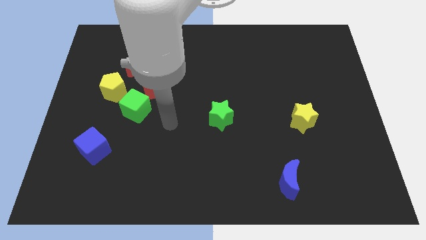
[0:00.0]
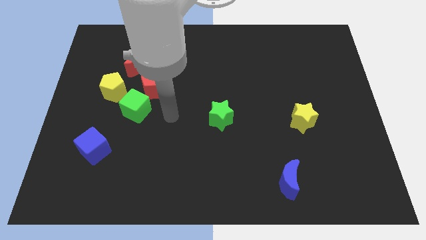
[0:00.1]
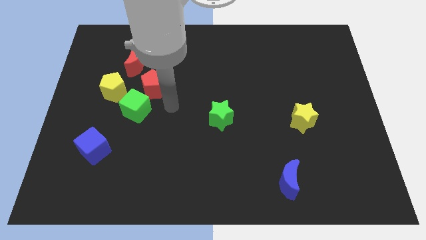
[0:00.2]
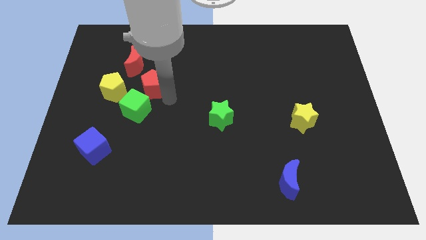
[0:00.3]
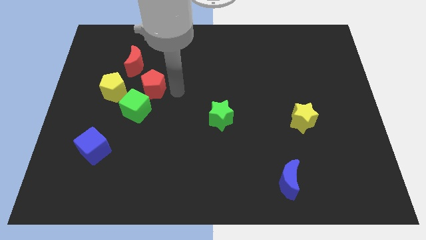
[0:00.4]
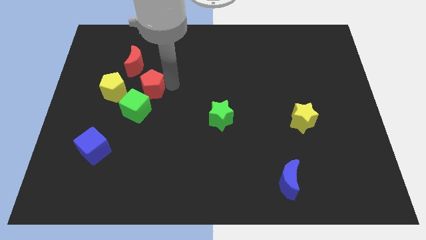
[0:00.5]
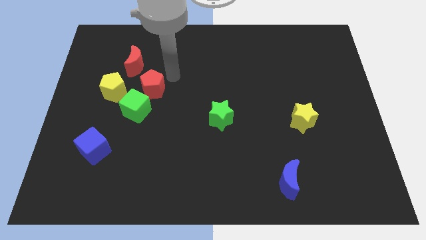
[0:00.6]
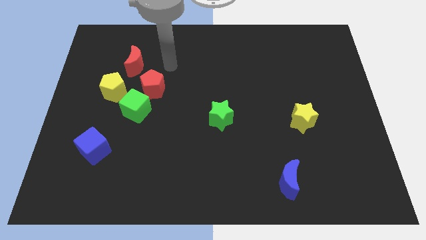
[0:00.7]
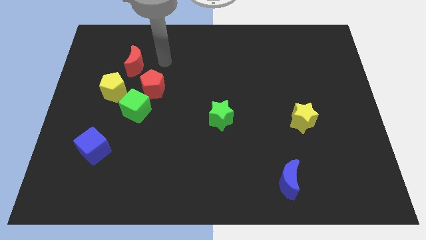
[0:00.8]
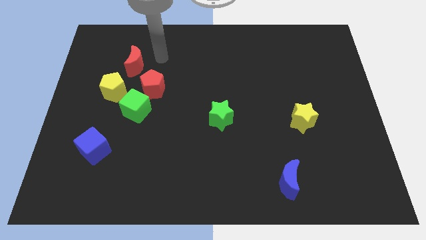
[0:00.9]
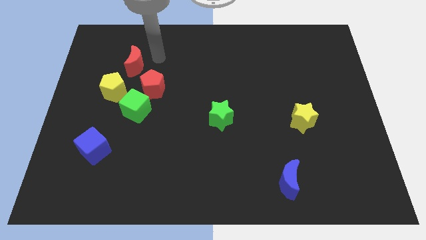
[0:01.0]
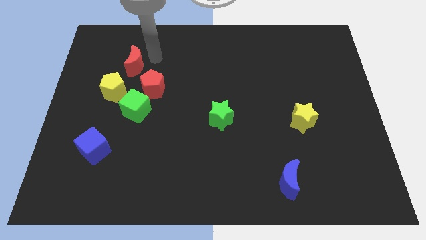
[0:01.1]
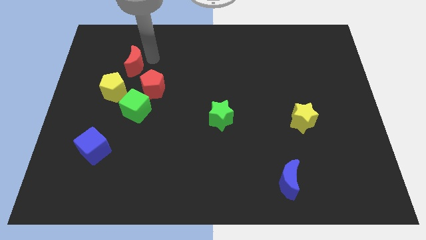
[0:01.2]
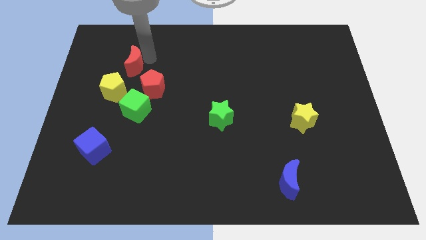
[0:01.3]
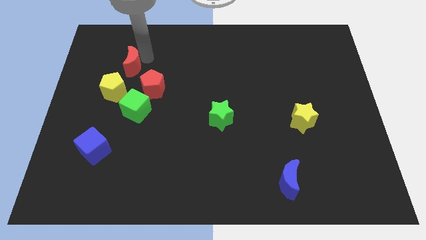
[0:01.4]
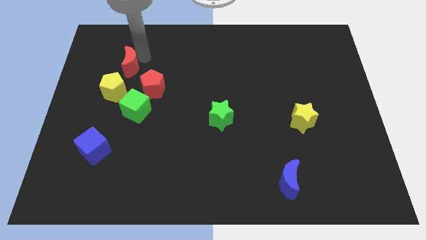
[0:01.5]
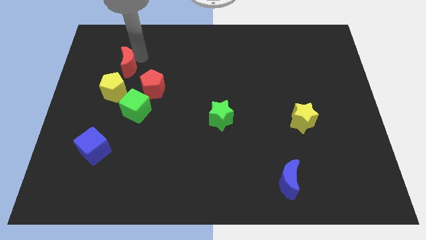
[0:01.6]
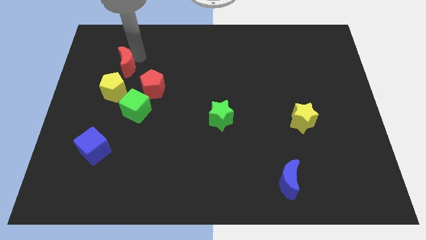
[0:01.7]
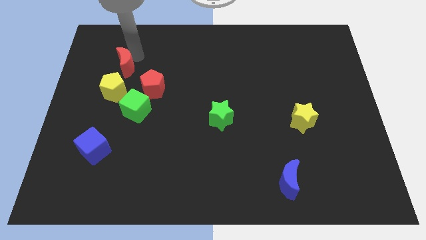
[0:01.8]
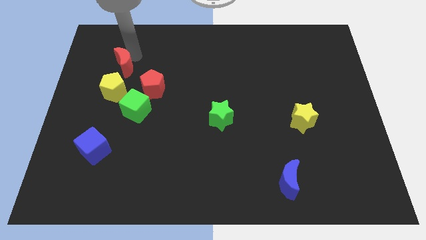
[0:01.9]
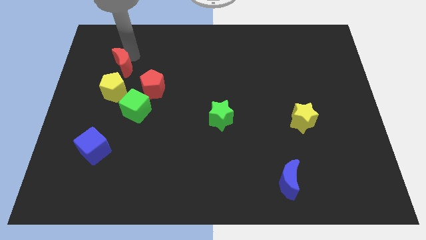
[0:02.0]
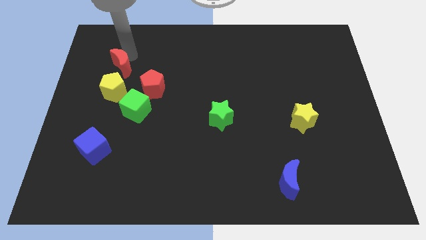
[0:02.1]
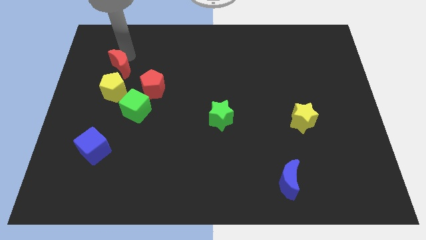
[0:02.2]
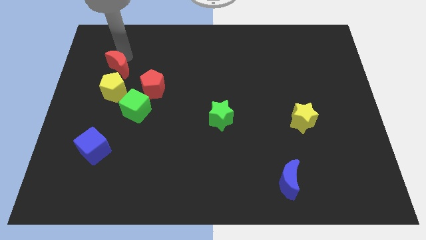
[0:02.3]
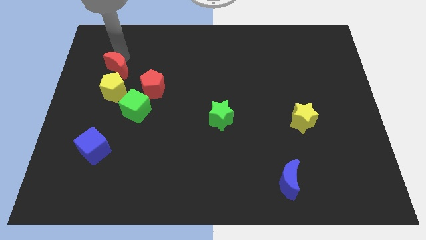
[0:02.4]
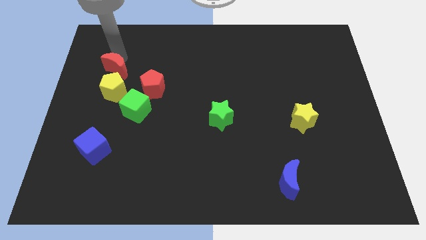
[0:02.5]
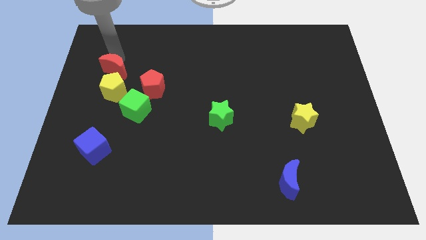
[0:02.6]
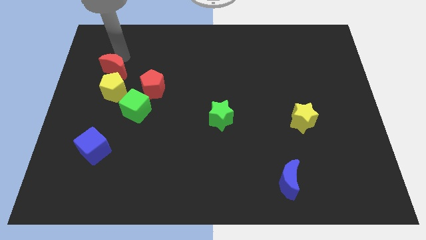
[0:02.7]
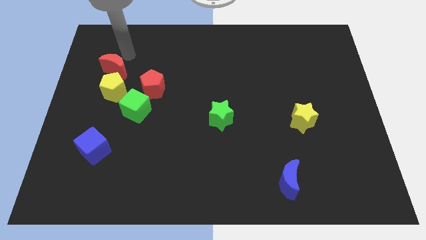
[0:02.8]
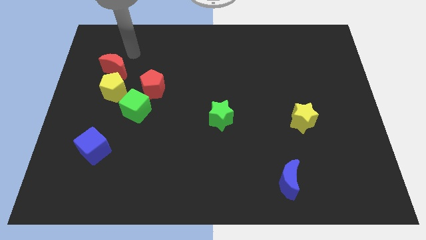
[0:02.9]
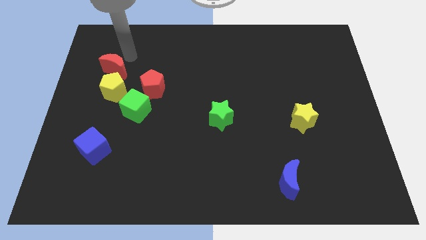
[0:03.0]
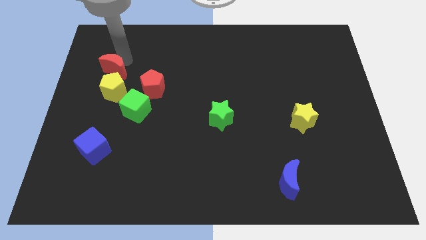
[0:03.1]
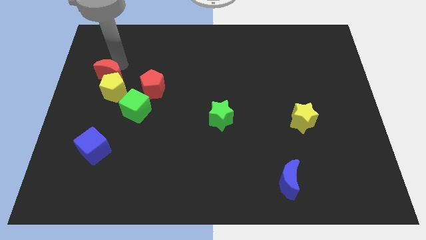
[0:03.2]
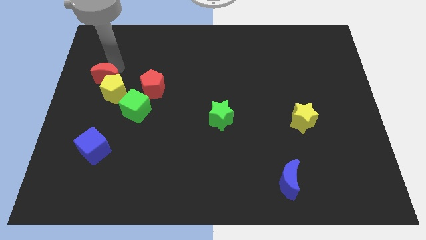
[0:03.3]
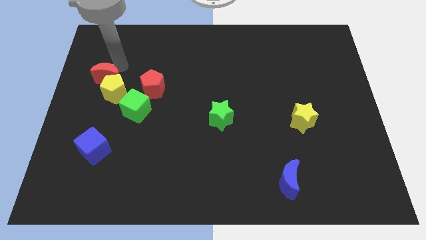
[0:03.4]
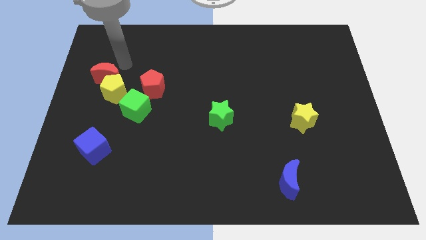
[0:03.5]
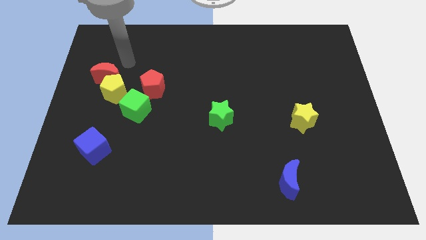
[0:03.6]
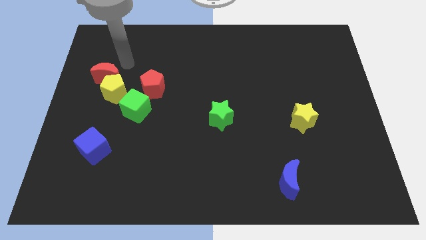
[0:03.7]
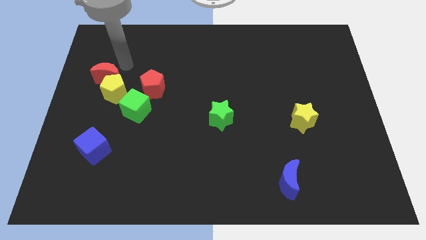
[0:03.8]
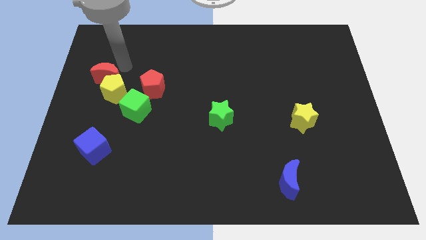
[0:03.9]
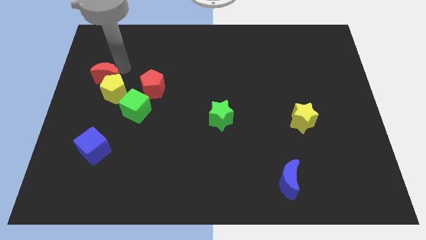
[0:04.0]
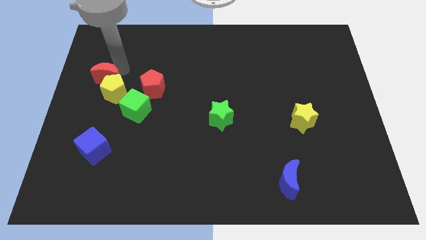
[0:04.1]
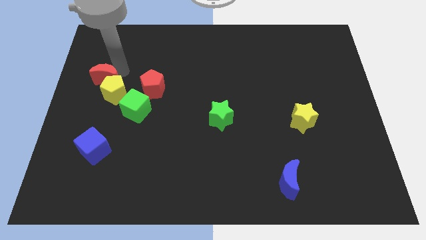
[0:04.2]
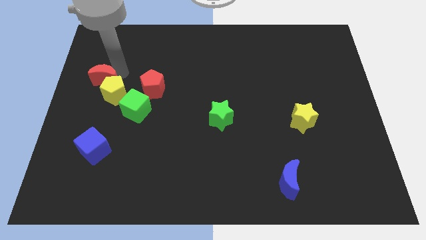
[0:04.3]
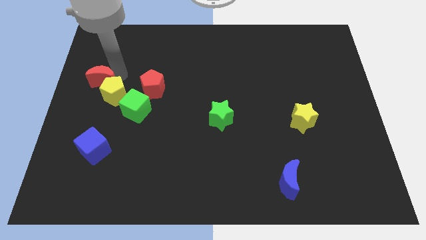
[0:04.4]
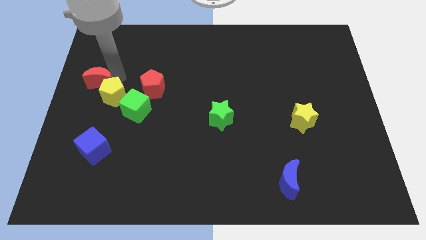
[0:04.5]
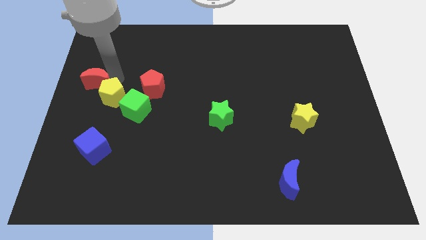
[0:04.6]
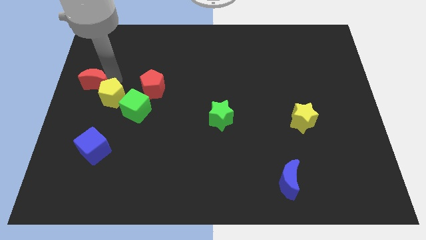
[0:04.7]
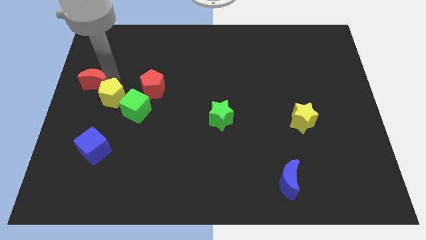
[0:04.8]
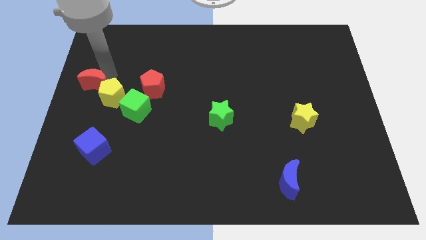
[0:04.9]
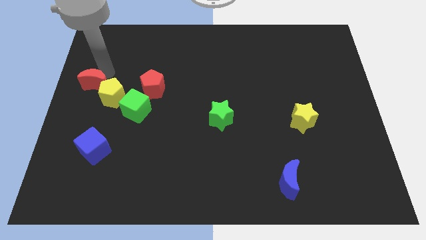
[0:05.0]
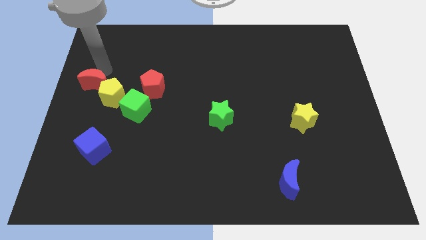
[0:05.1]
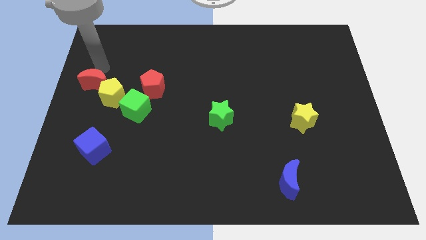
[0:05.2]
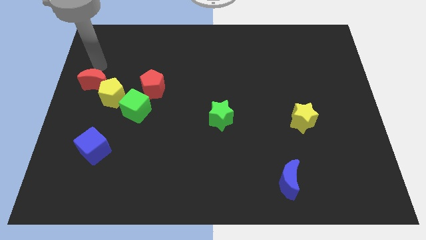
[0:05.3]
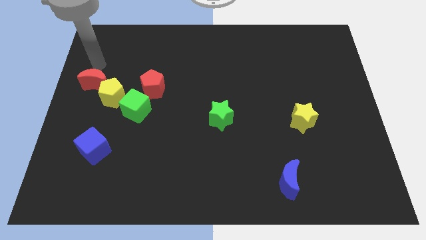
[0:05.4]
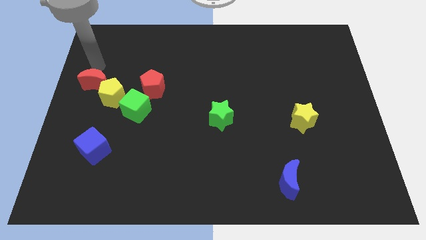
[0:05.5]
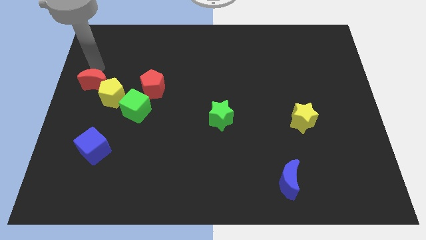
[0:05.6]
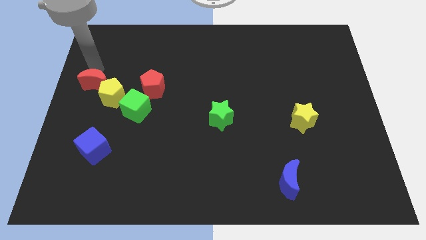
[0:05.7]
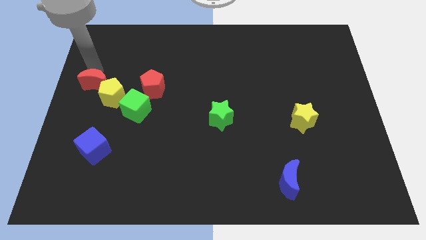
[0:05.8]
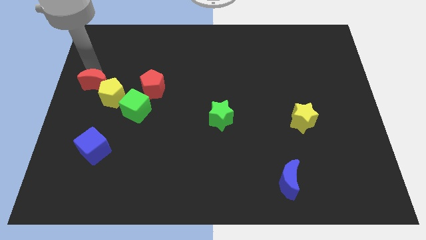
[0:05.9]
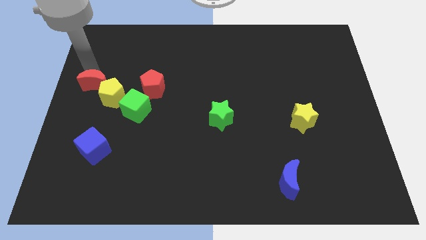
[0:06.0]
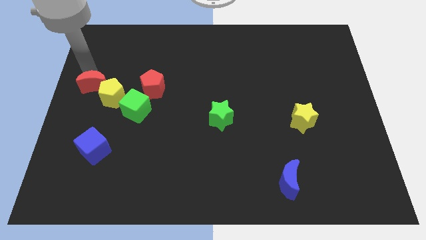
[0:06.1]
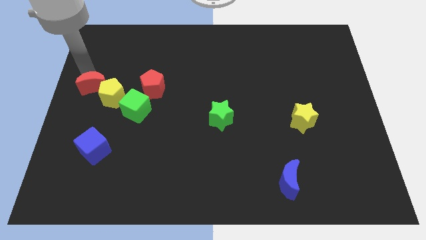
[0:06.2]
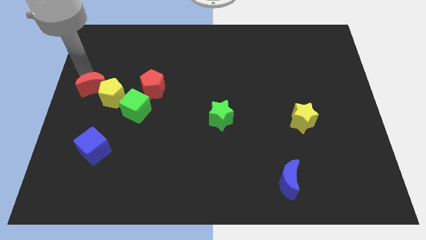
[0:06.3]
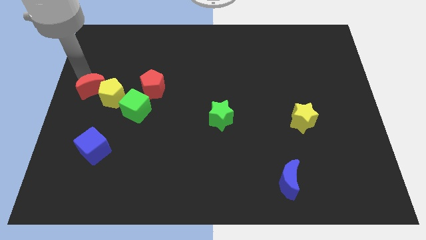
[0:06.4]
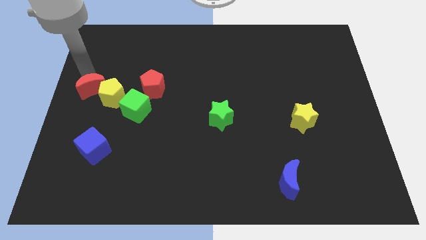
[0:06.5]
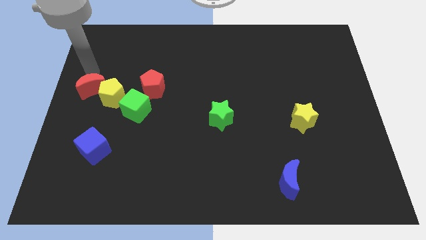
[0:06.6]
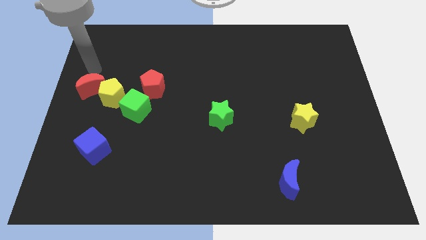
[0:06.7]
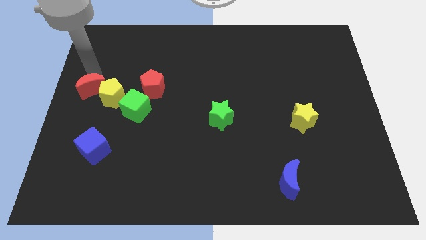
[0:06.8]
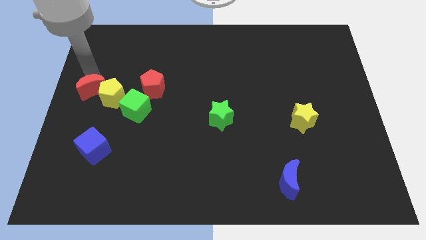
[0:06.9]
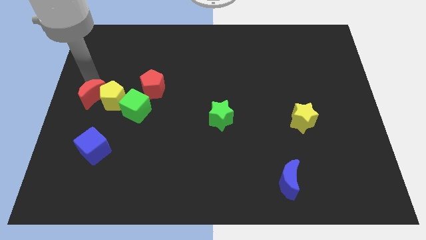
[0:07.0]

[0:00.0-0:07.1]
slide the red moon left of the green cube
